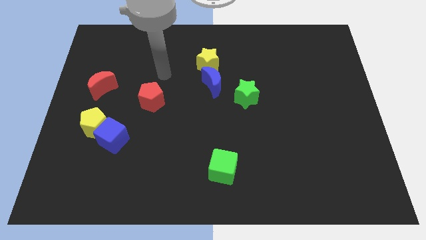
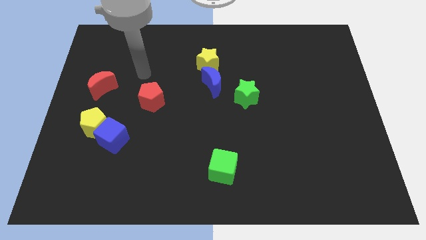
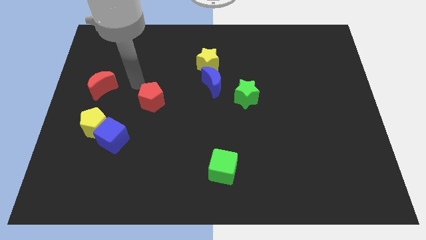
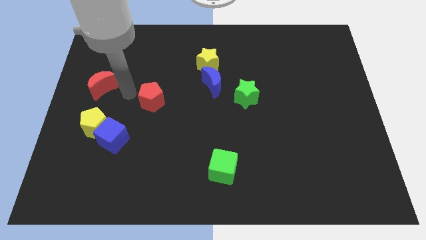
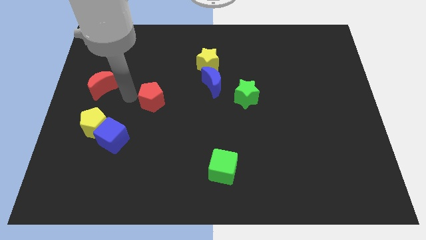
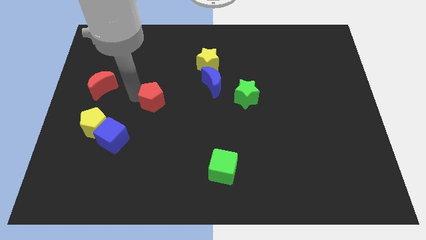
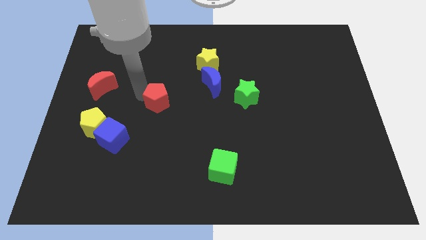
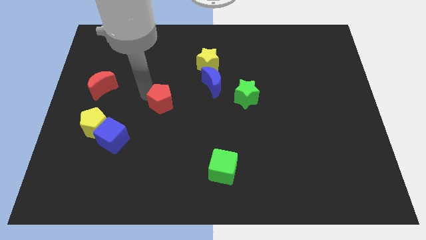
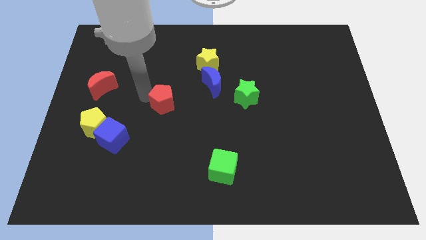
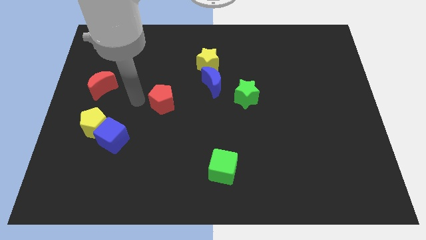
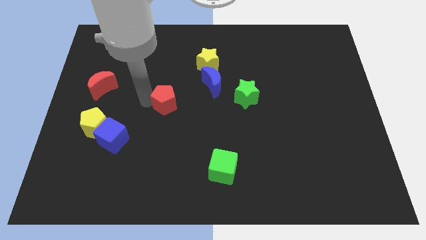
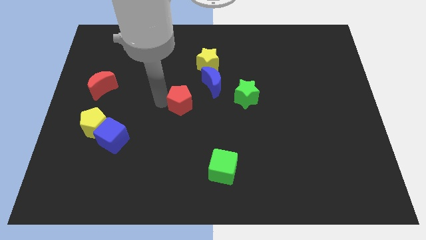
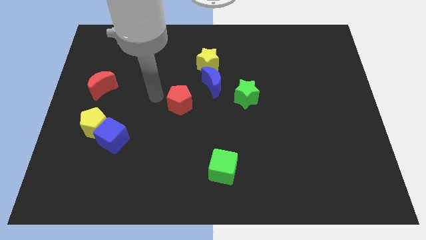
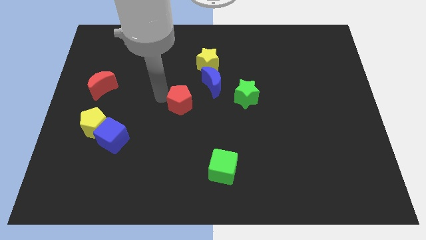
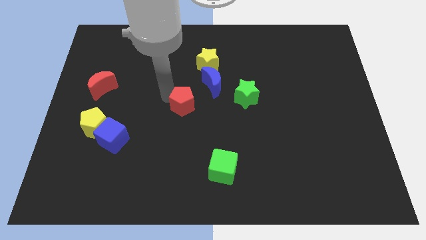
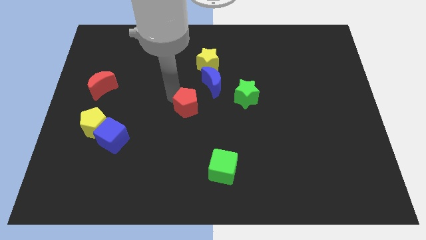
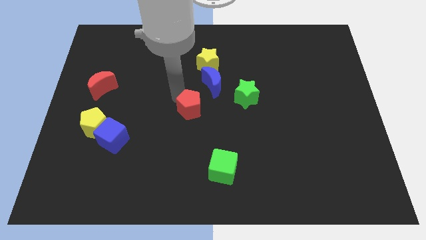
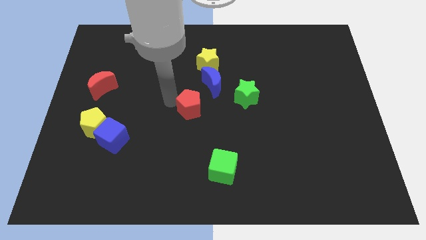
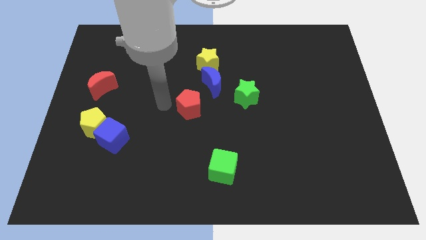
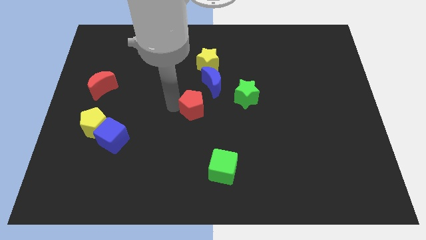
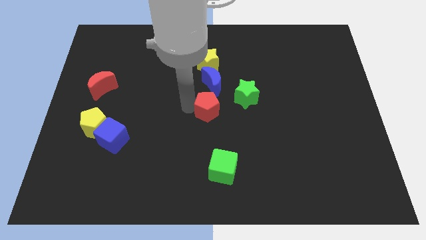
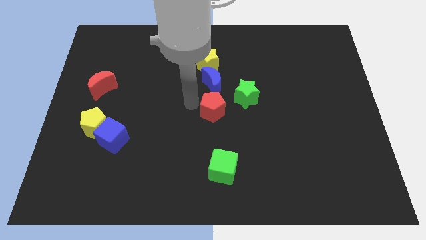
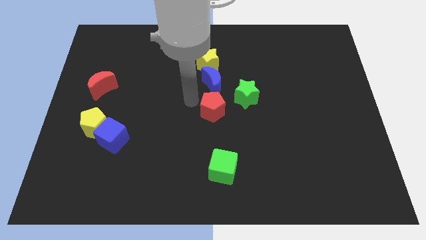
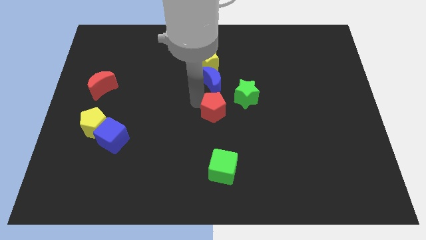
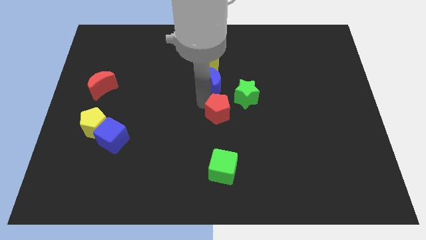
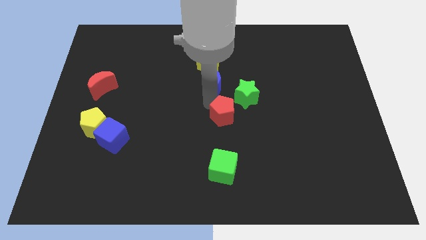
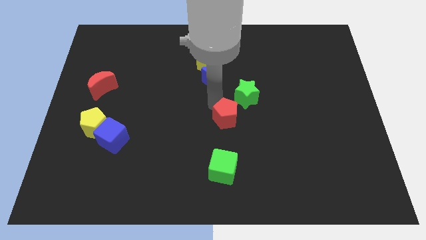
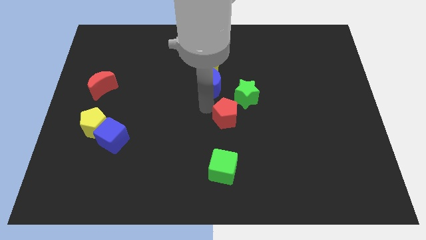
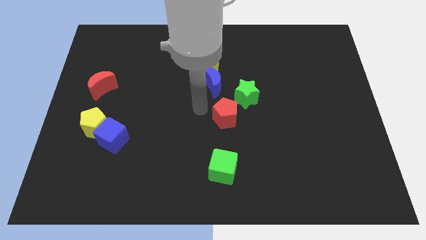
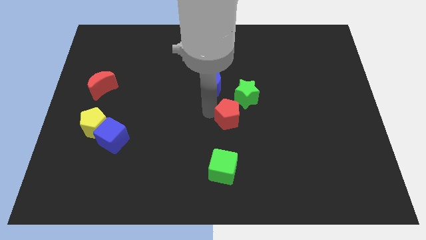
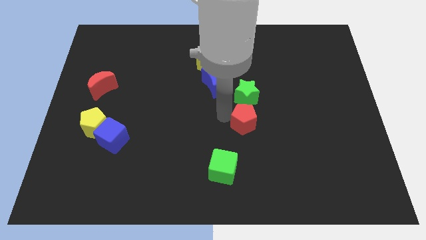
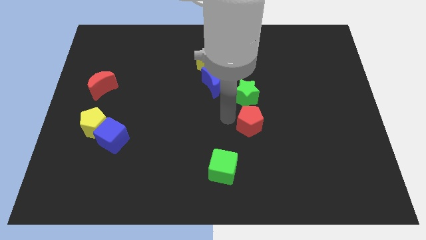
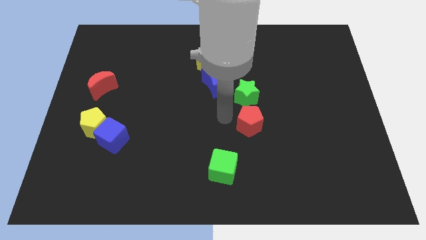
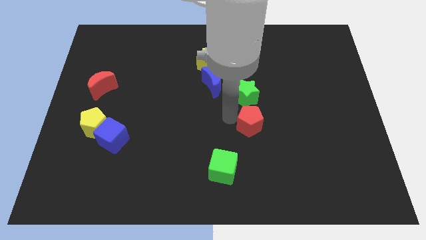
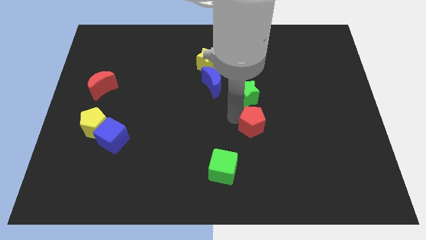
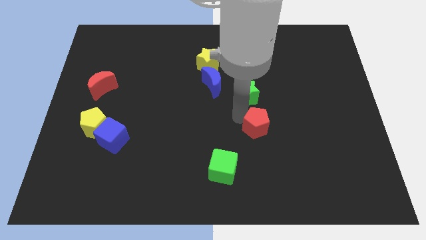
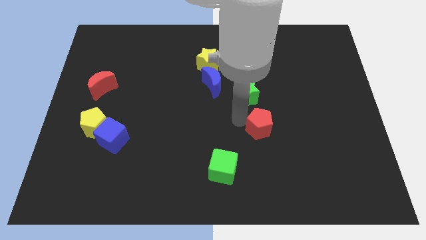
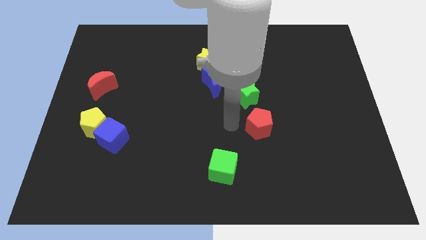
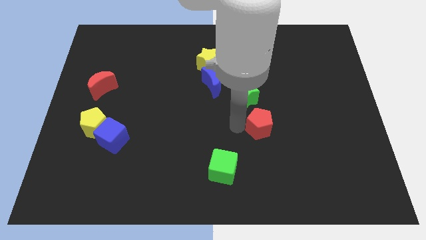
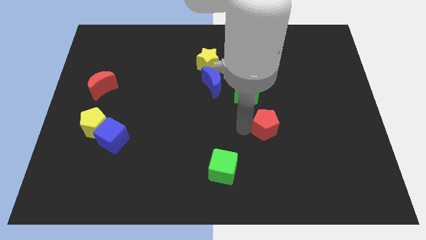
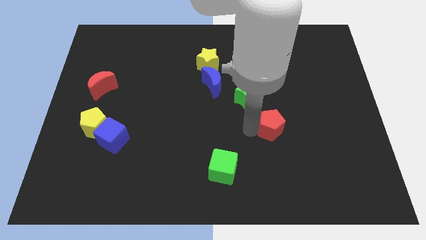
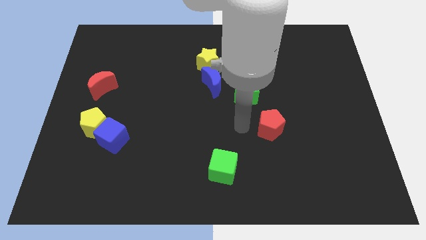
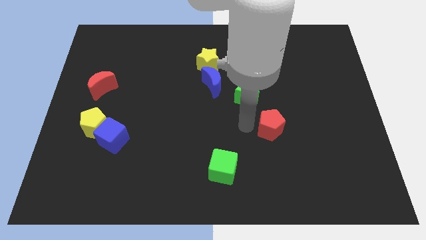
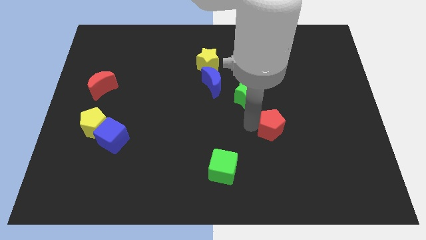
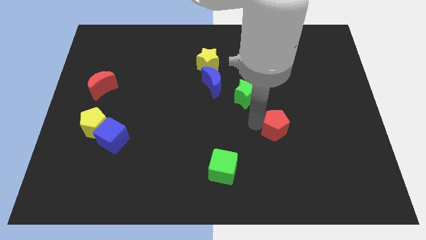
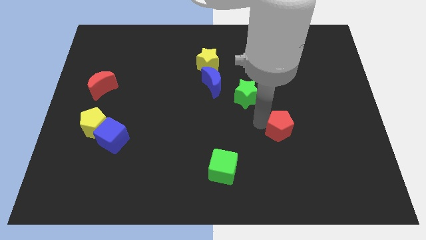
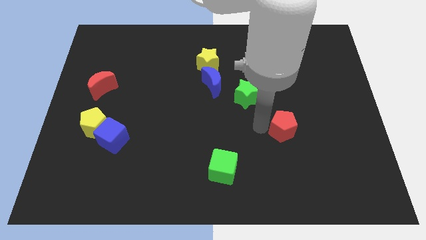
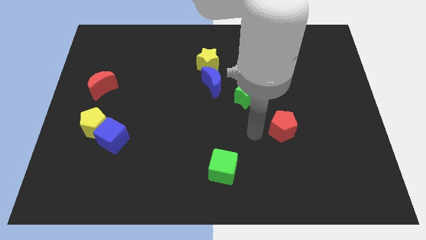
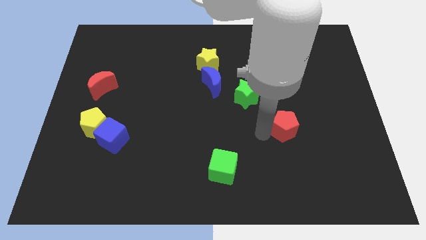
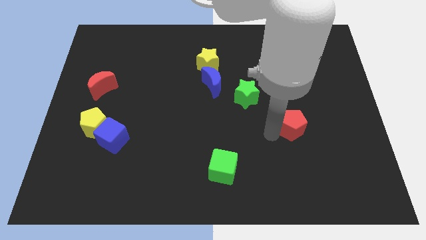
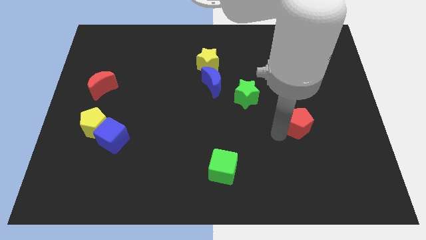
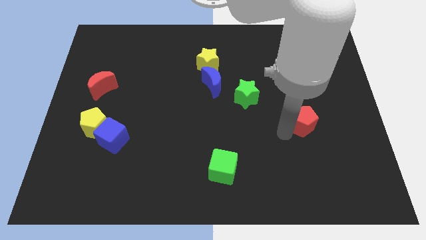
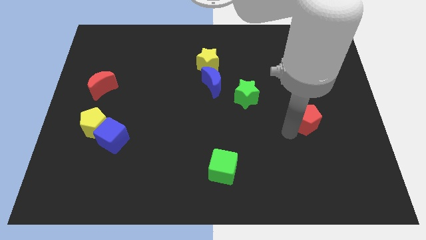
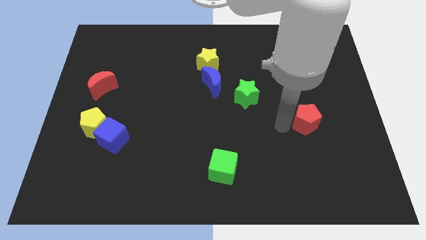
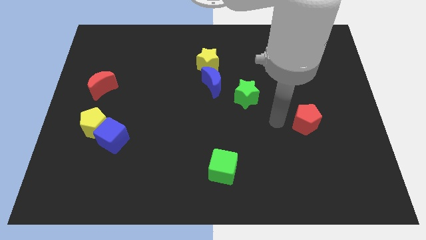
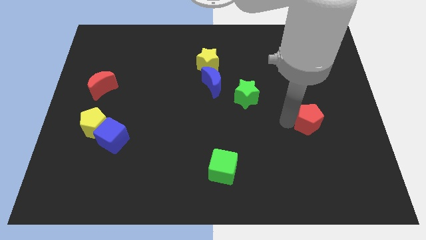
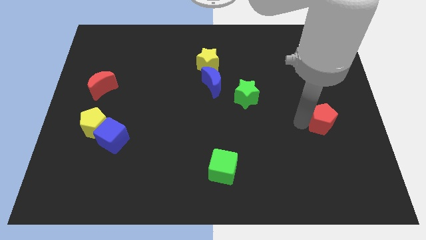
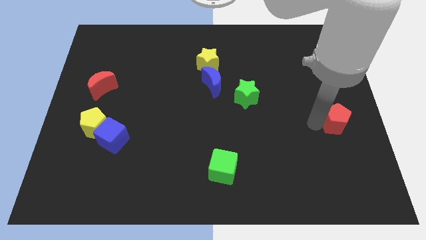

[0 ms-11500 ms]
slide the red pentagon to the right side

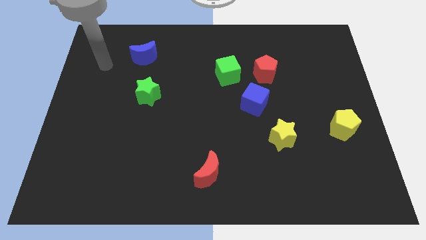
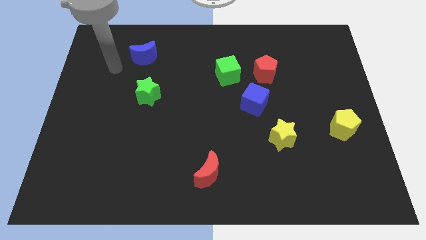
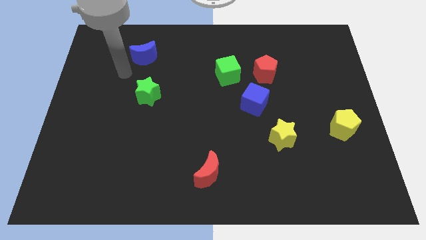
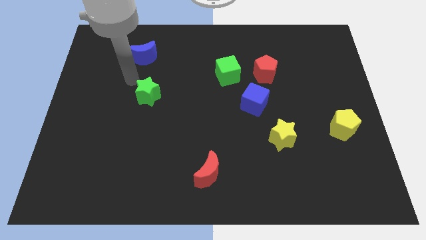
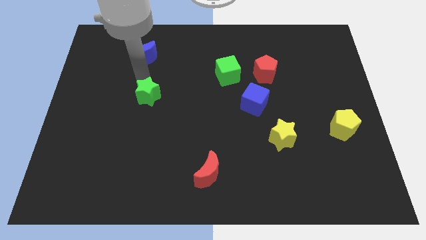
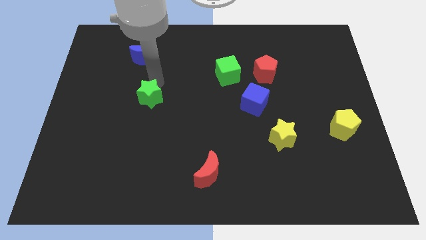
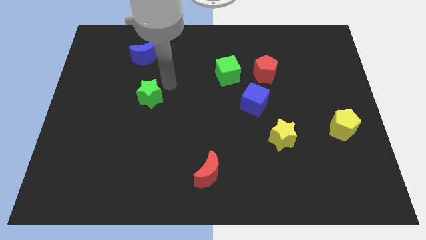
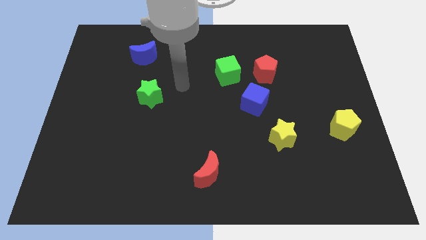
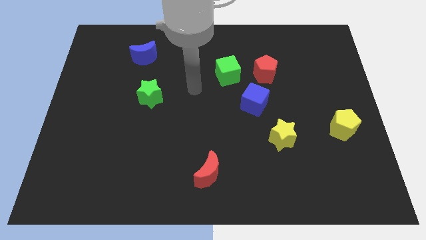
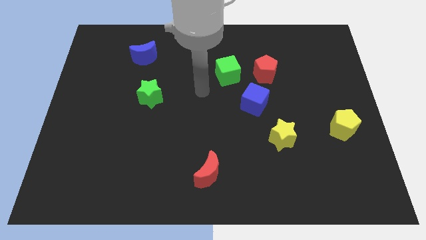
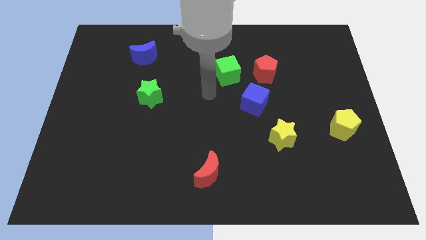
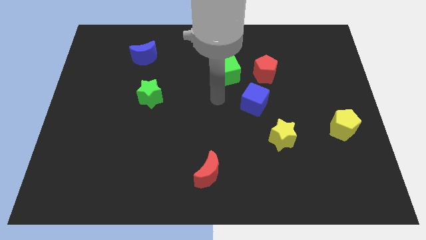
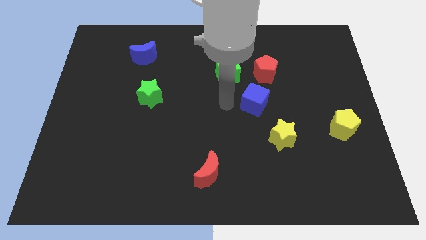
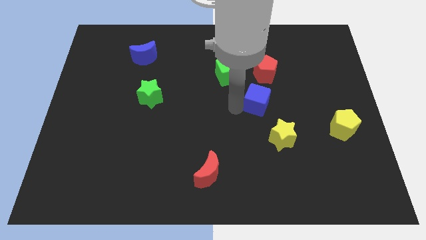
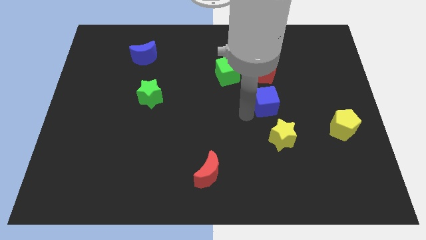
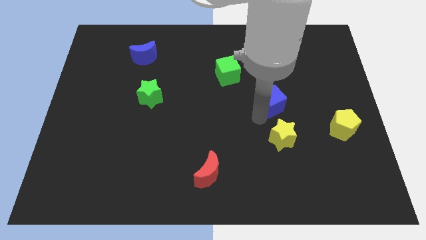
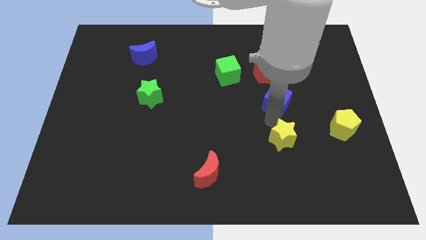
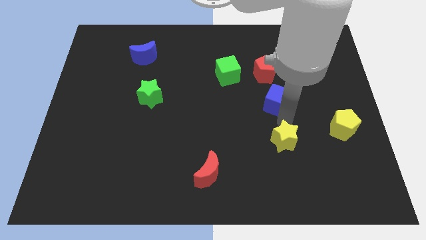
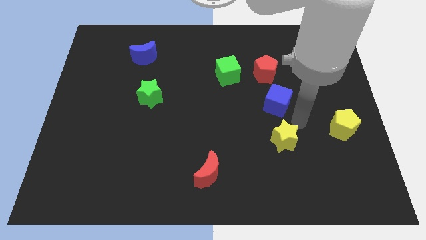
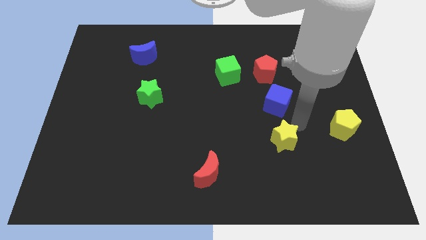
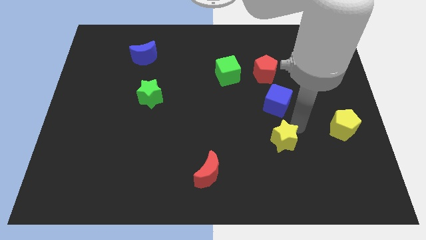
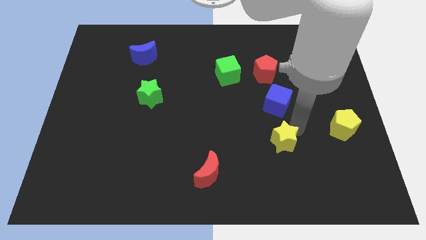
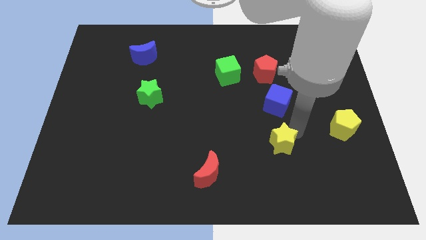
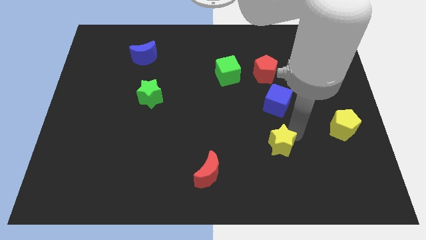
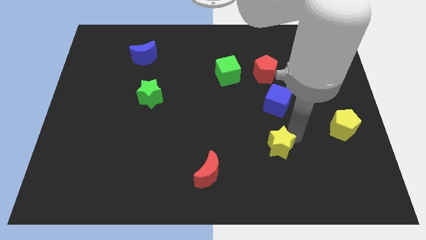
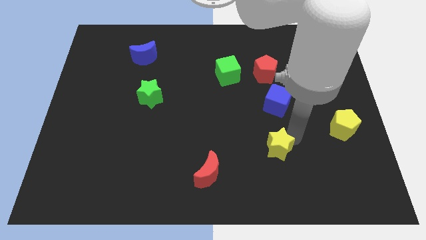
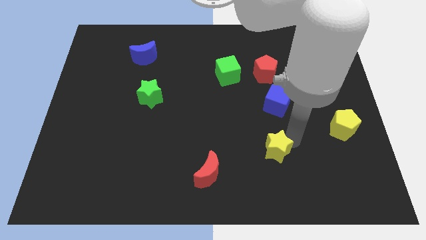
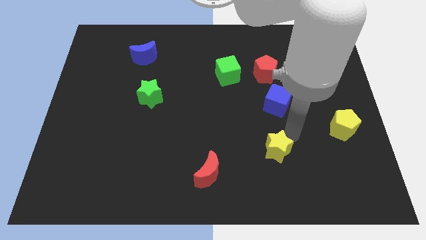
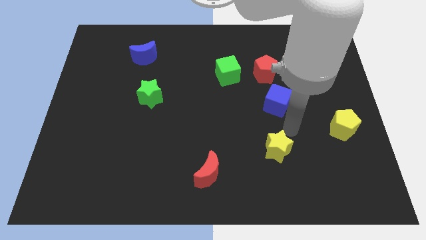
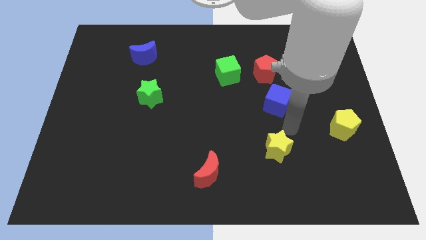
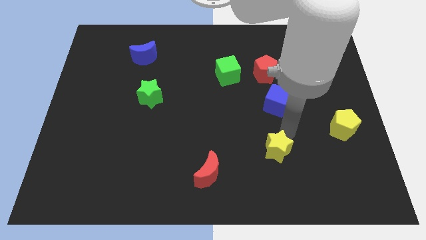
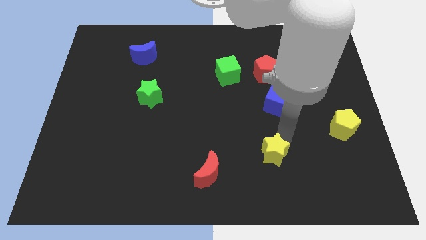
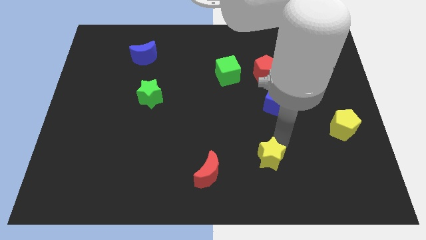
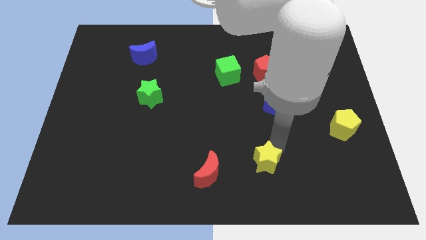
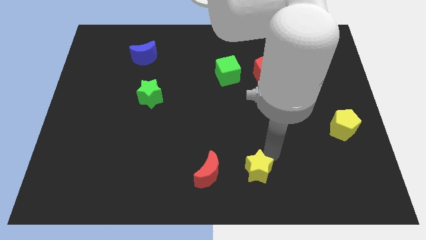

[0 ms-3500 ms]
slide the yellow star to the bottom
